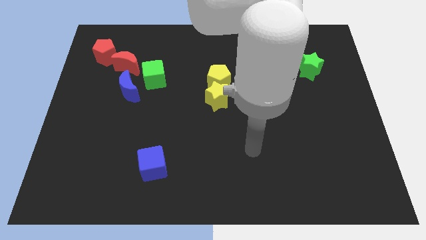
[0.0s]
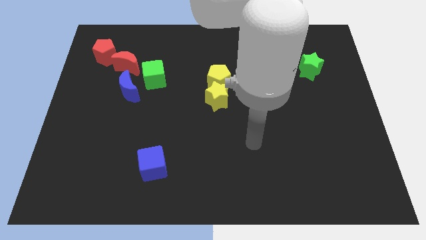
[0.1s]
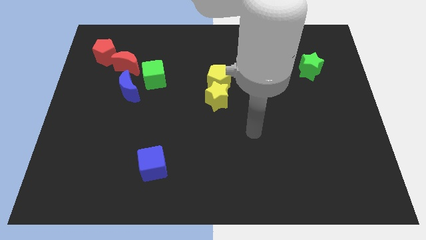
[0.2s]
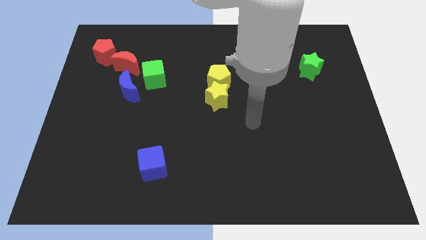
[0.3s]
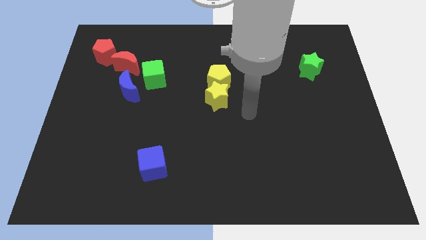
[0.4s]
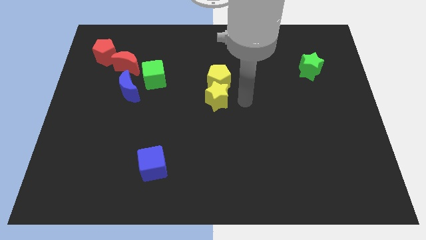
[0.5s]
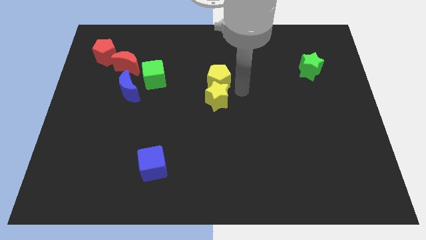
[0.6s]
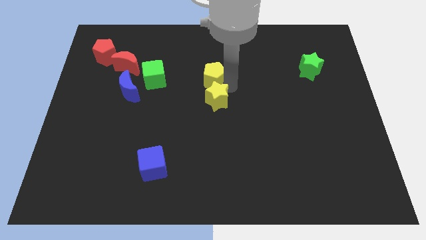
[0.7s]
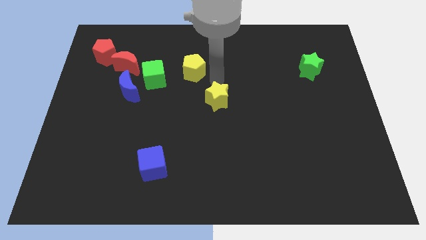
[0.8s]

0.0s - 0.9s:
separate the yellow star from the yellow pentagon

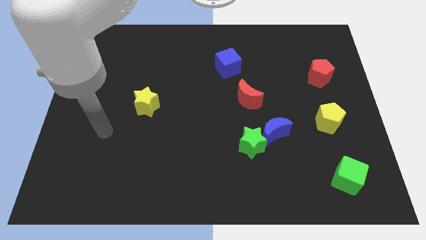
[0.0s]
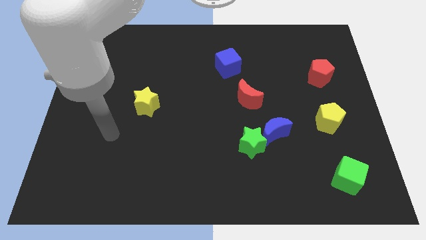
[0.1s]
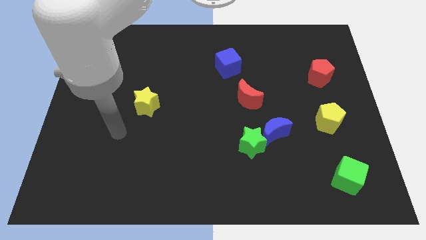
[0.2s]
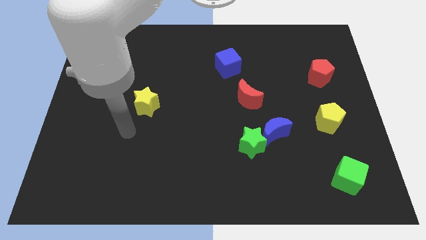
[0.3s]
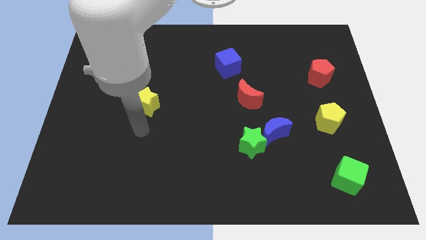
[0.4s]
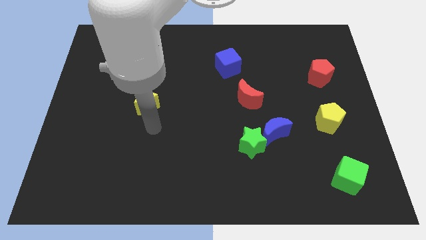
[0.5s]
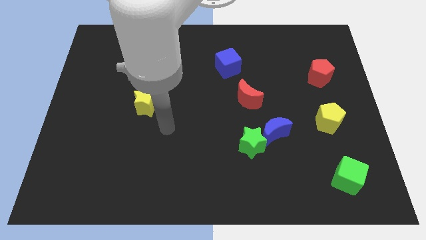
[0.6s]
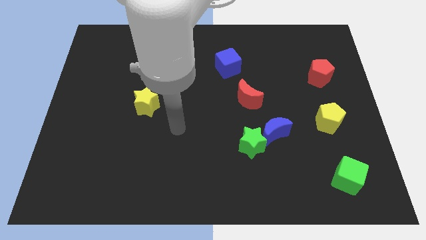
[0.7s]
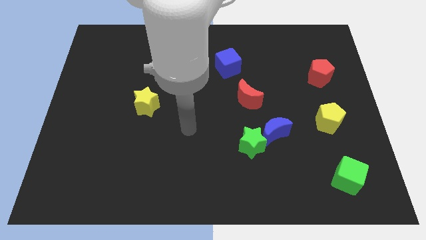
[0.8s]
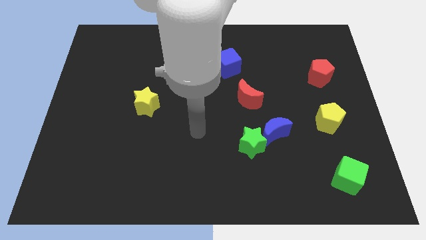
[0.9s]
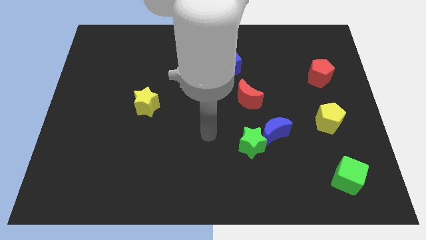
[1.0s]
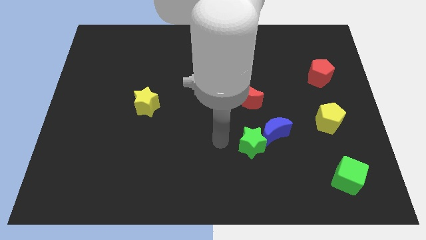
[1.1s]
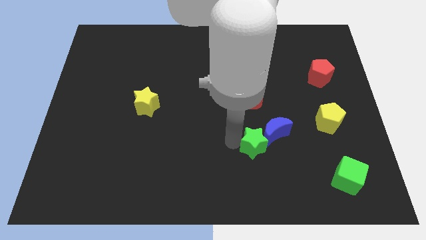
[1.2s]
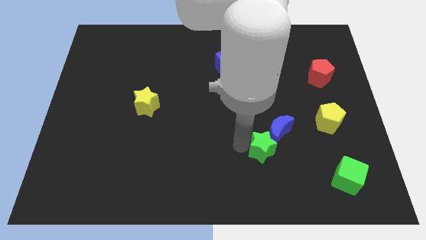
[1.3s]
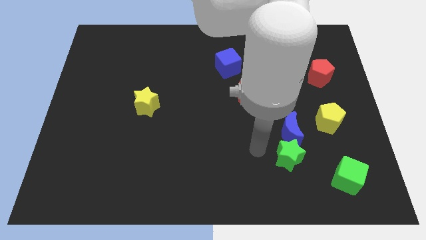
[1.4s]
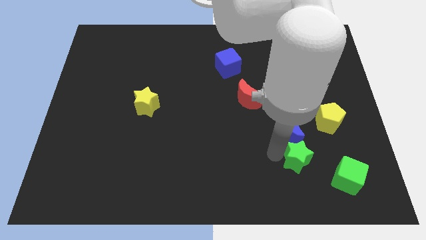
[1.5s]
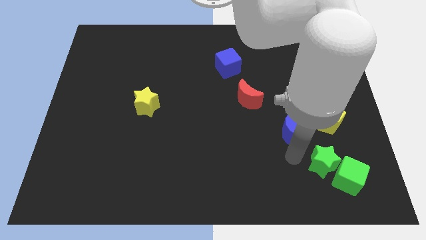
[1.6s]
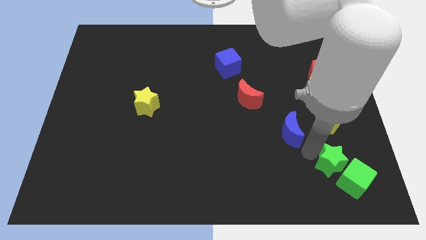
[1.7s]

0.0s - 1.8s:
move the blue moon away from the green star

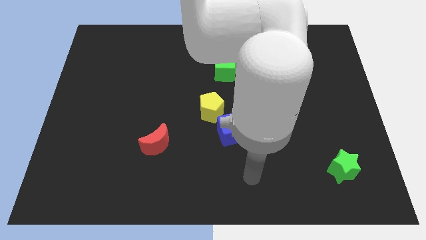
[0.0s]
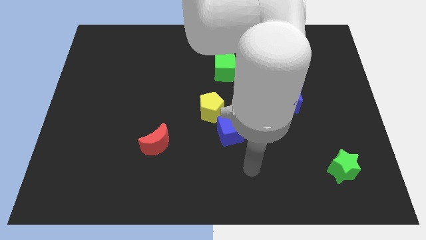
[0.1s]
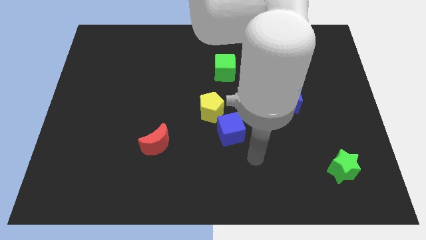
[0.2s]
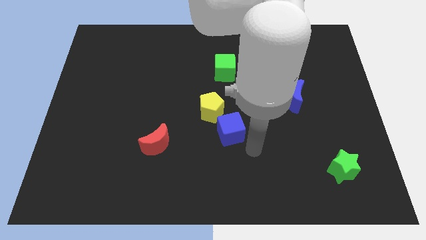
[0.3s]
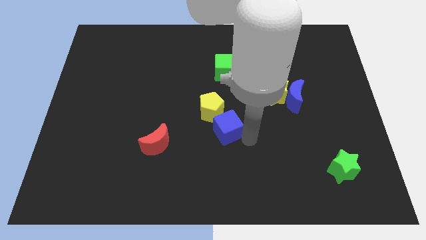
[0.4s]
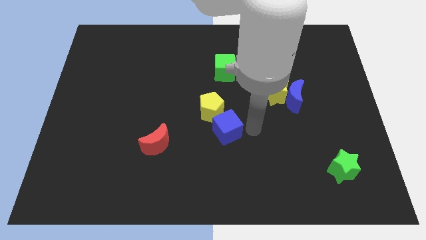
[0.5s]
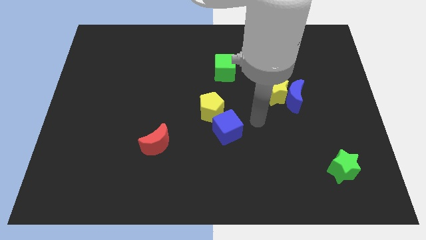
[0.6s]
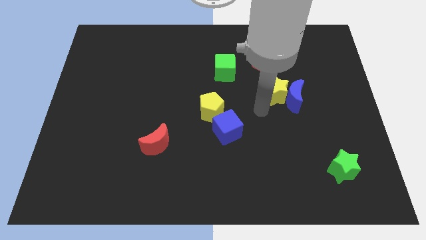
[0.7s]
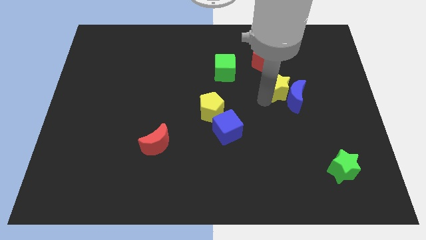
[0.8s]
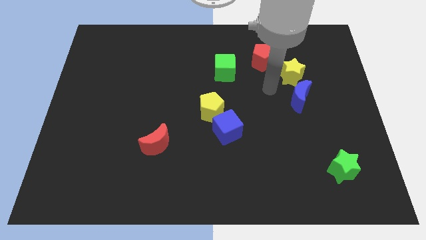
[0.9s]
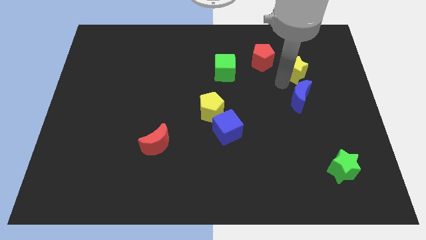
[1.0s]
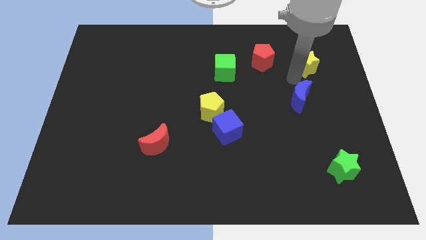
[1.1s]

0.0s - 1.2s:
pull the blue moon apart from the yellow star

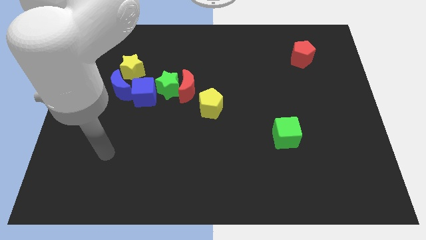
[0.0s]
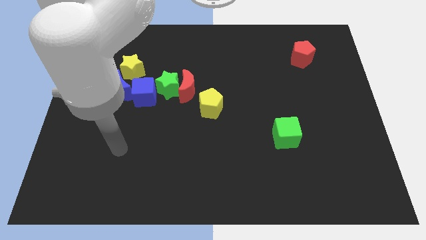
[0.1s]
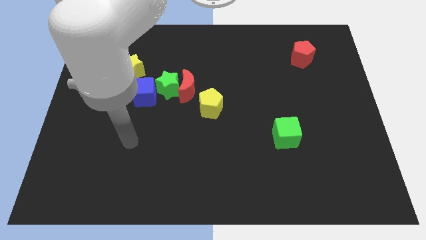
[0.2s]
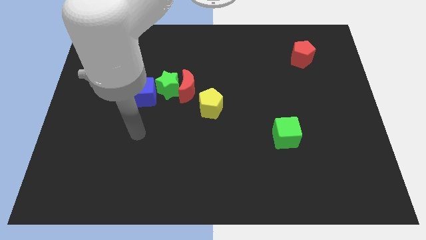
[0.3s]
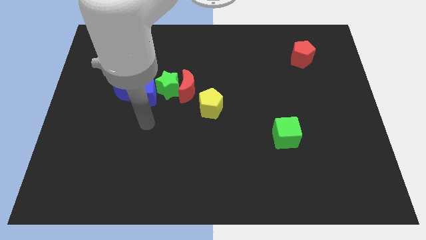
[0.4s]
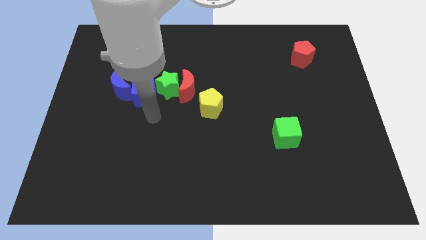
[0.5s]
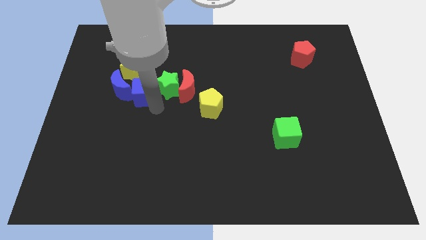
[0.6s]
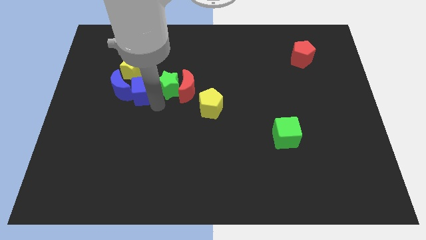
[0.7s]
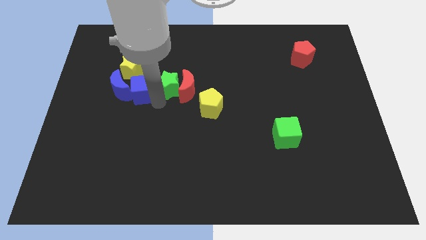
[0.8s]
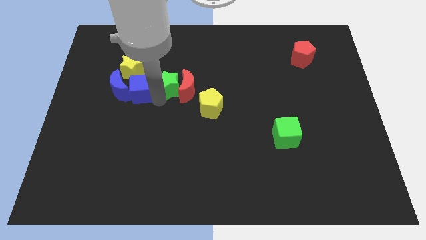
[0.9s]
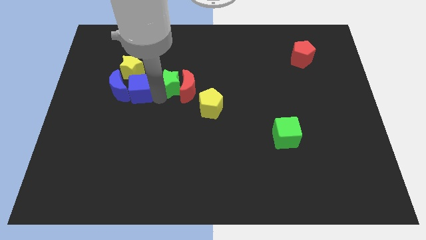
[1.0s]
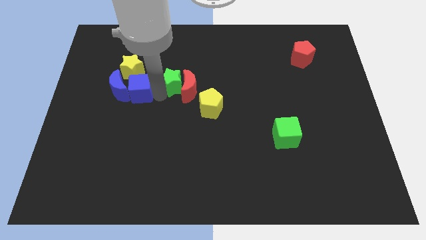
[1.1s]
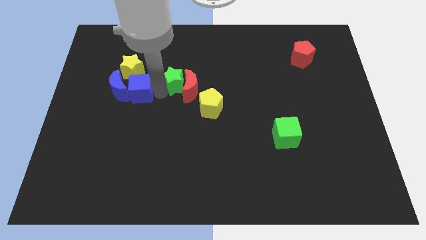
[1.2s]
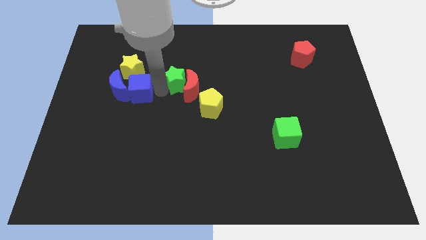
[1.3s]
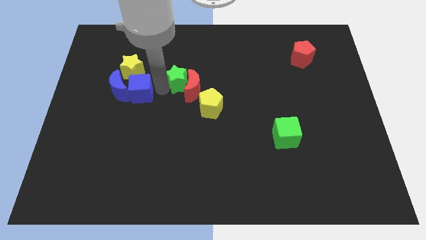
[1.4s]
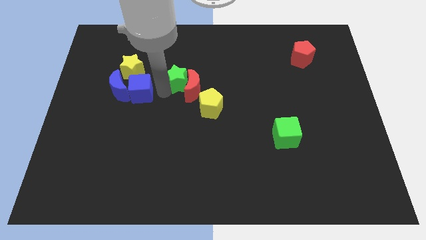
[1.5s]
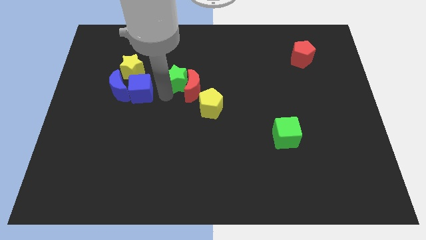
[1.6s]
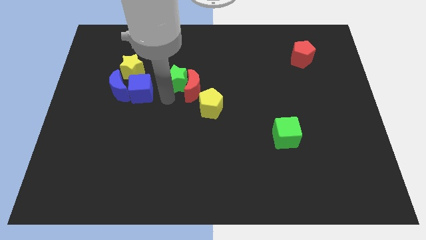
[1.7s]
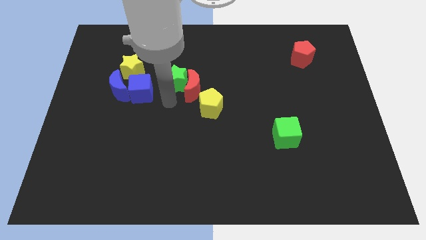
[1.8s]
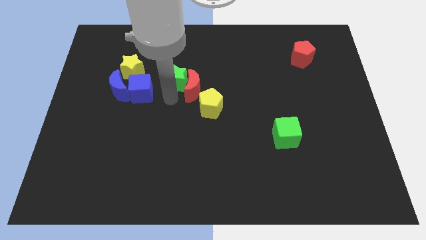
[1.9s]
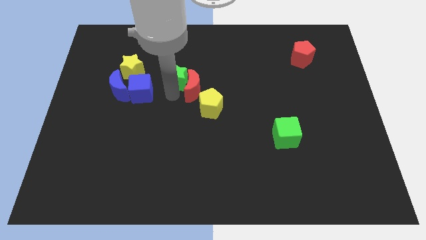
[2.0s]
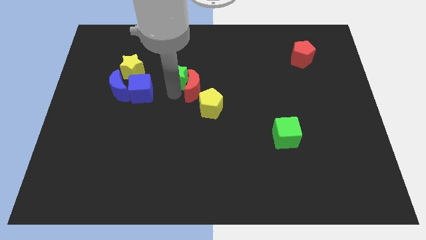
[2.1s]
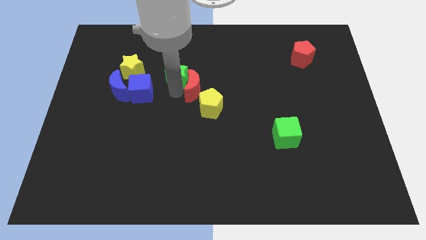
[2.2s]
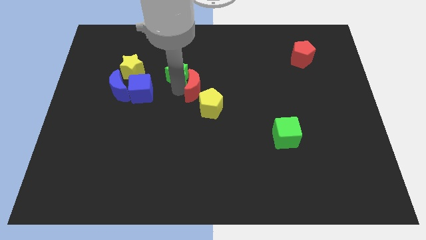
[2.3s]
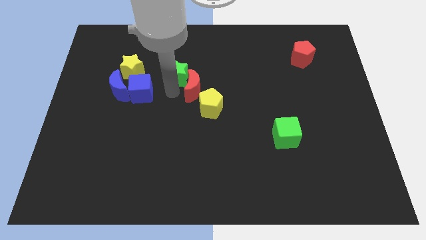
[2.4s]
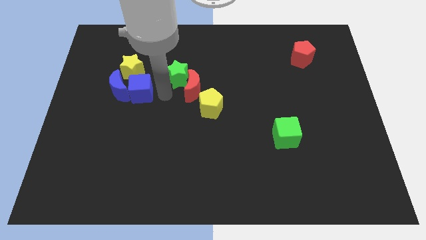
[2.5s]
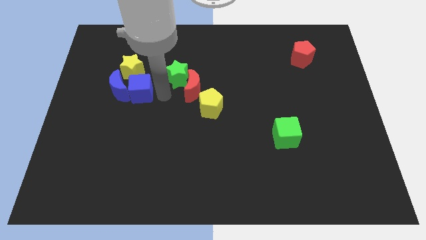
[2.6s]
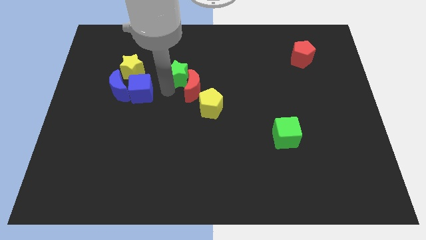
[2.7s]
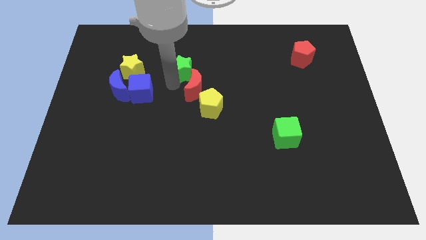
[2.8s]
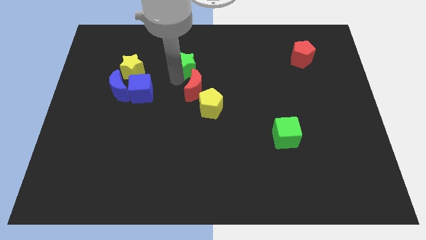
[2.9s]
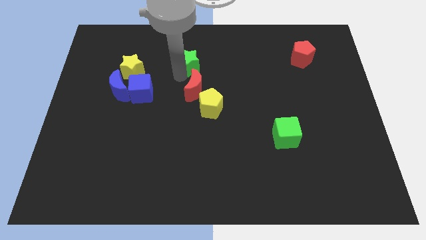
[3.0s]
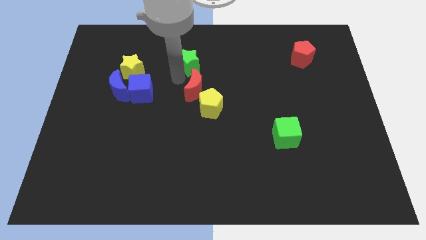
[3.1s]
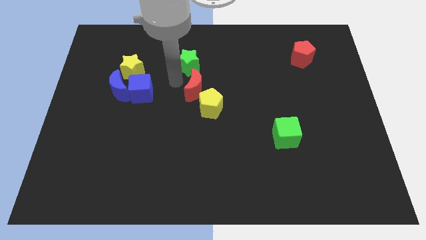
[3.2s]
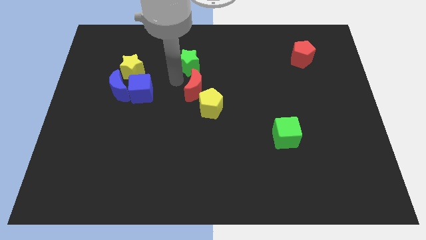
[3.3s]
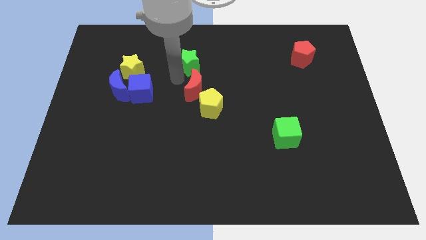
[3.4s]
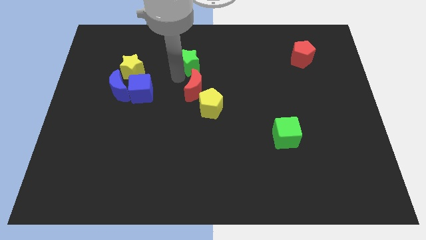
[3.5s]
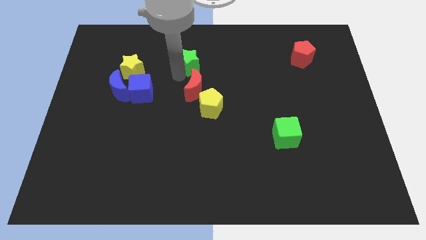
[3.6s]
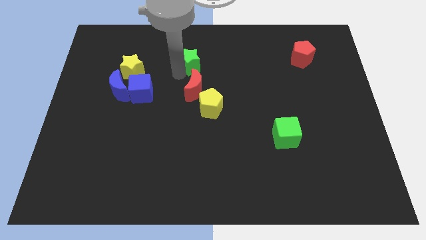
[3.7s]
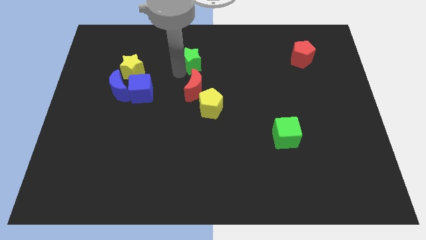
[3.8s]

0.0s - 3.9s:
move the green star away from the red moon and blue cube

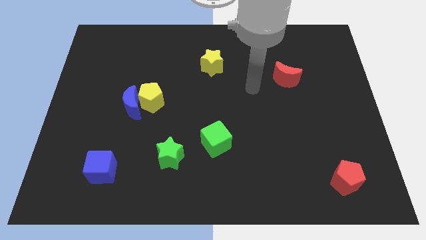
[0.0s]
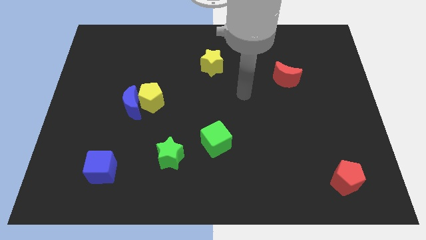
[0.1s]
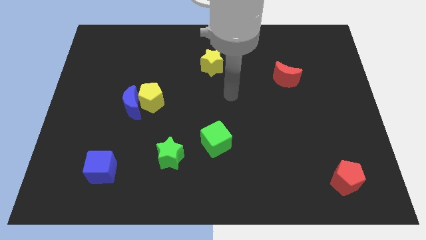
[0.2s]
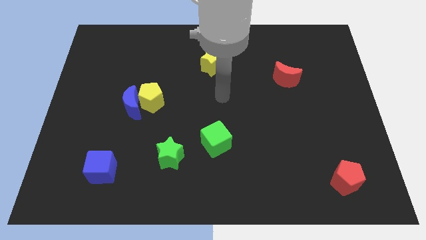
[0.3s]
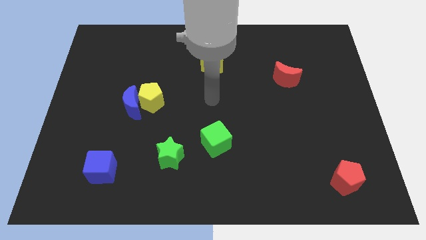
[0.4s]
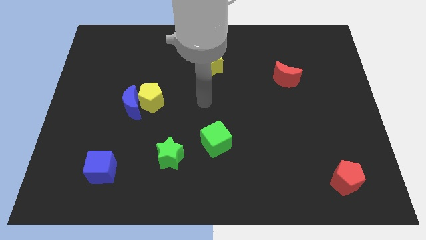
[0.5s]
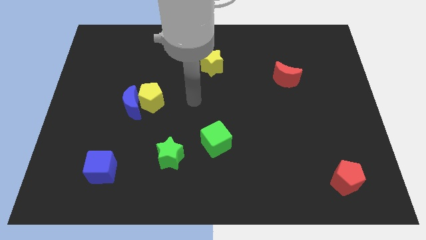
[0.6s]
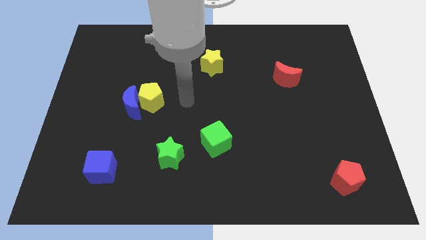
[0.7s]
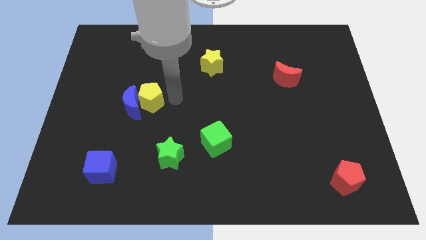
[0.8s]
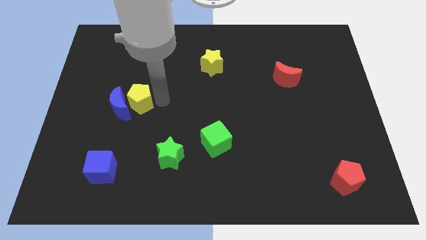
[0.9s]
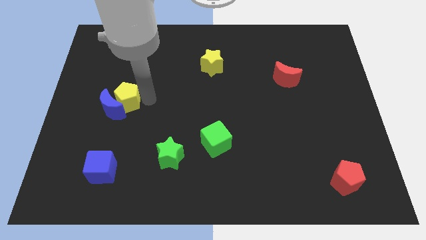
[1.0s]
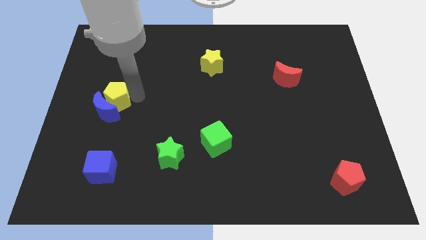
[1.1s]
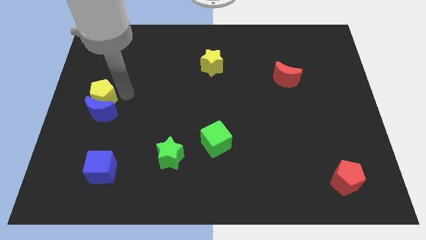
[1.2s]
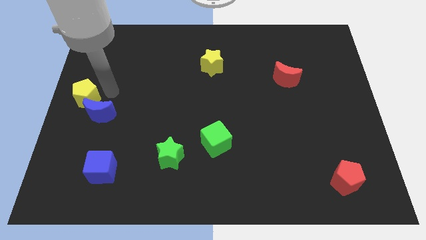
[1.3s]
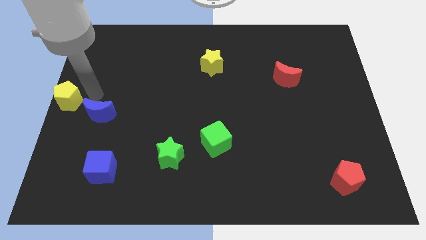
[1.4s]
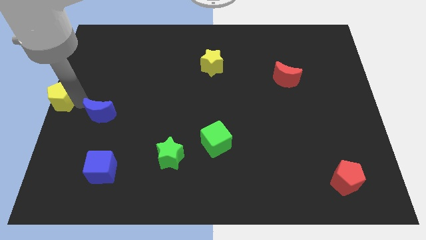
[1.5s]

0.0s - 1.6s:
separate the blue moon from the yellow pentagon
